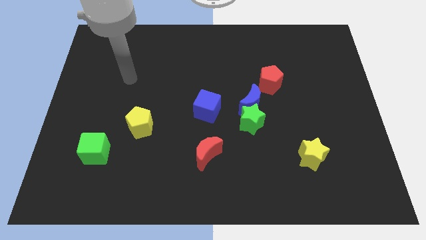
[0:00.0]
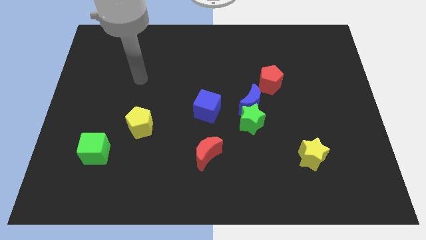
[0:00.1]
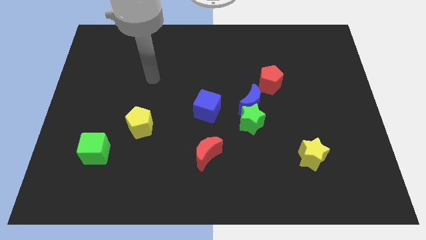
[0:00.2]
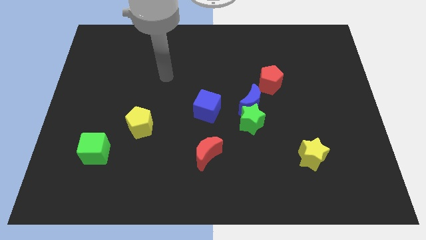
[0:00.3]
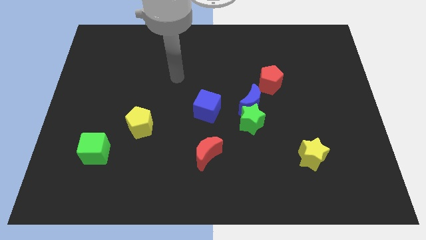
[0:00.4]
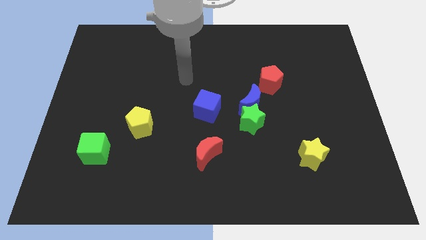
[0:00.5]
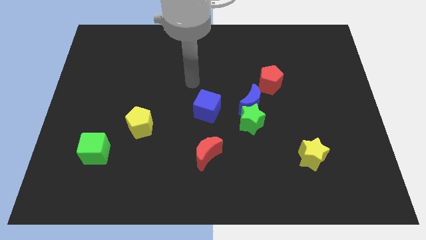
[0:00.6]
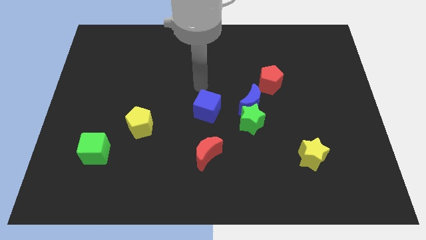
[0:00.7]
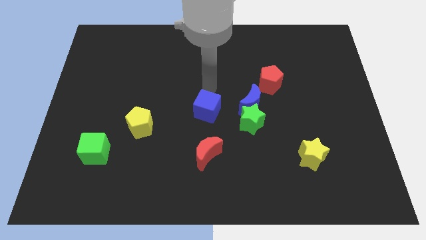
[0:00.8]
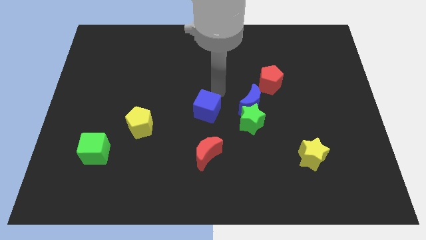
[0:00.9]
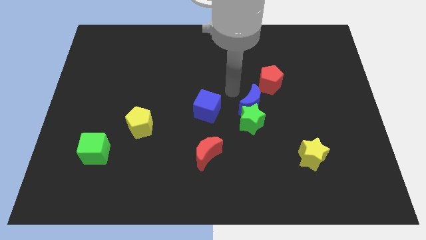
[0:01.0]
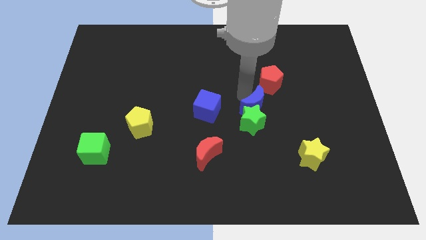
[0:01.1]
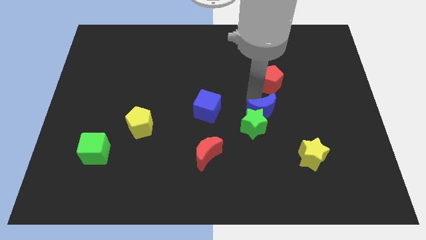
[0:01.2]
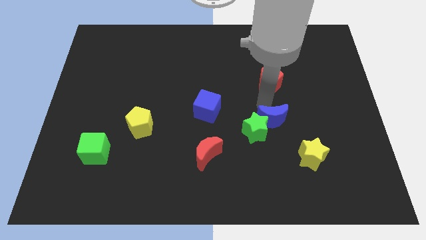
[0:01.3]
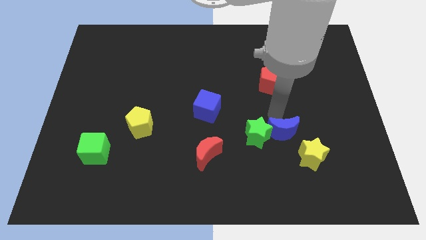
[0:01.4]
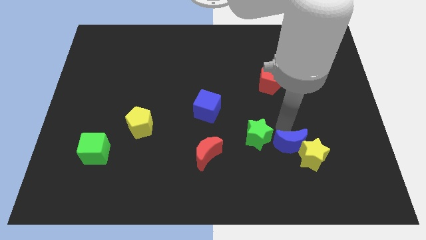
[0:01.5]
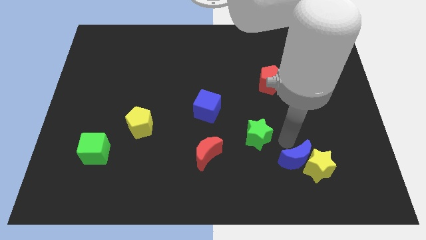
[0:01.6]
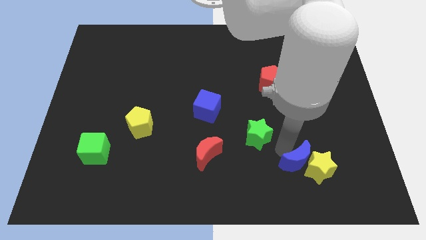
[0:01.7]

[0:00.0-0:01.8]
move the green star away from the blue moon

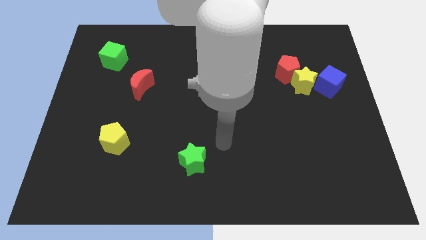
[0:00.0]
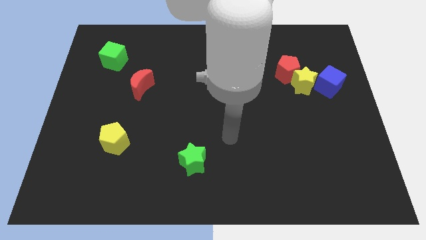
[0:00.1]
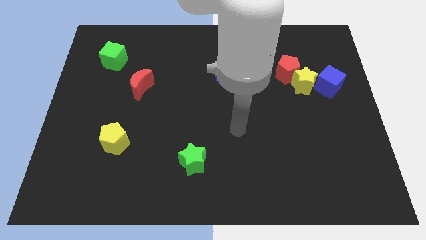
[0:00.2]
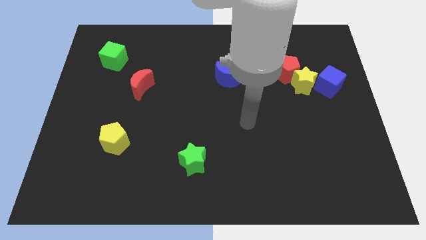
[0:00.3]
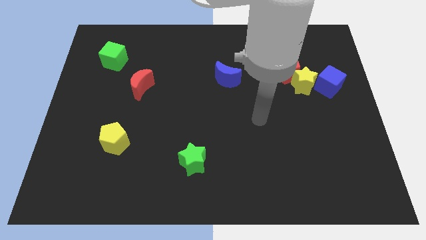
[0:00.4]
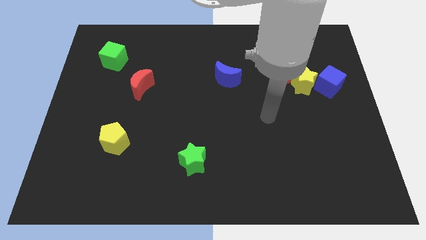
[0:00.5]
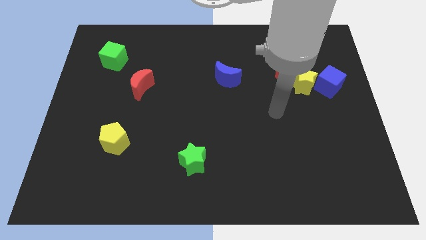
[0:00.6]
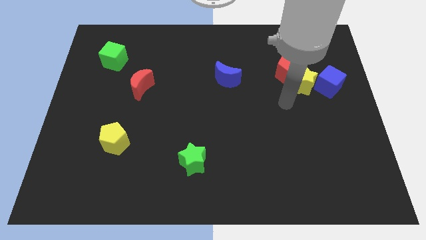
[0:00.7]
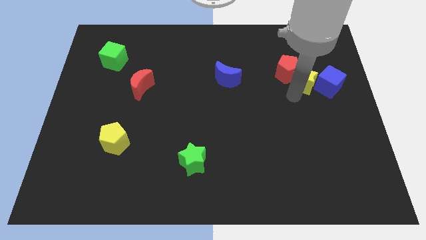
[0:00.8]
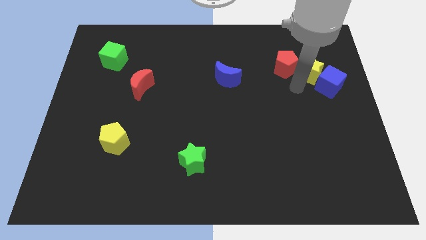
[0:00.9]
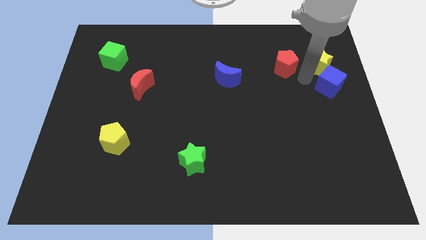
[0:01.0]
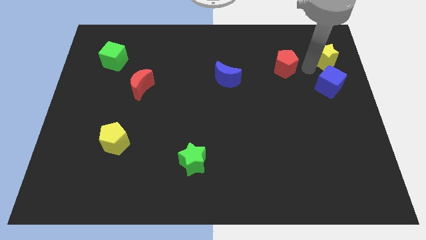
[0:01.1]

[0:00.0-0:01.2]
separate the red pentagon from the yellow star

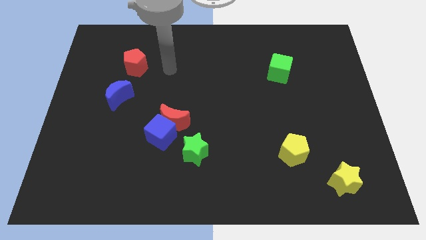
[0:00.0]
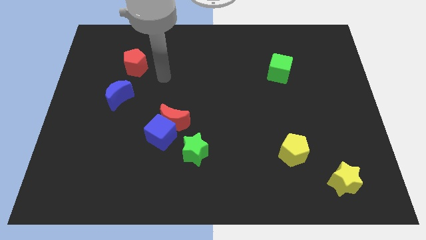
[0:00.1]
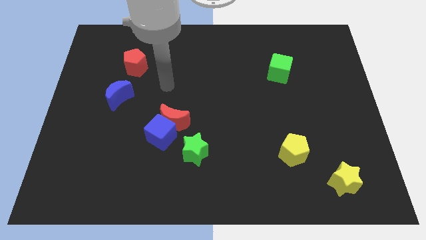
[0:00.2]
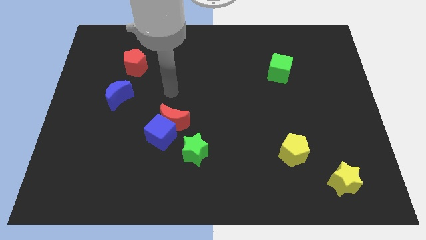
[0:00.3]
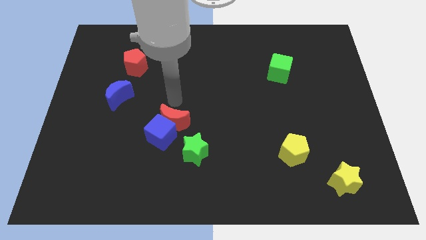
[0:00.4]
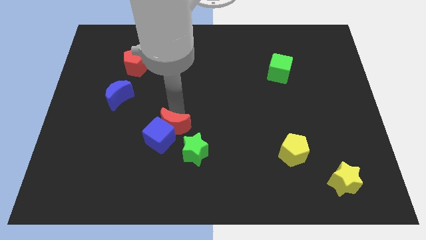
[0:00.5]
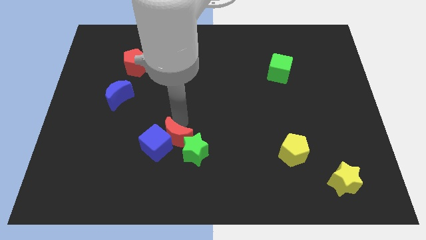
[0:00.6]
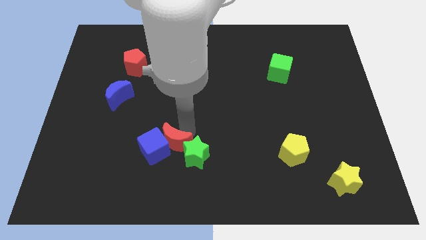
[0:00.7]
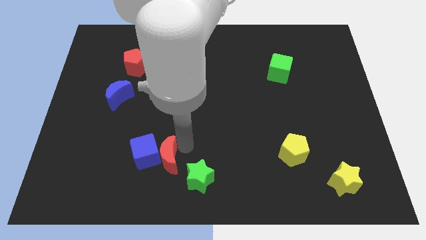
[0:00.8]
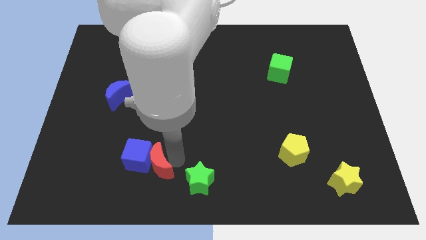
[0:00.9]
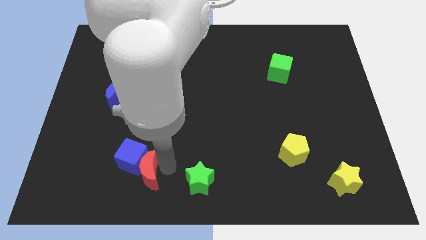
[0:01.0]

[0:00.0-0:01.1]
separate the blue cube from the red moon and green star

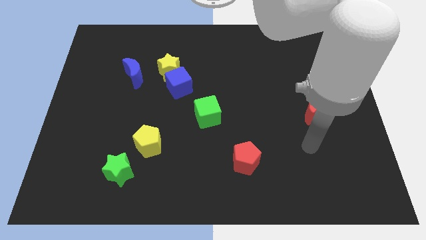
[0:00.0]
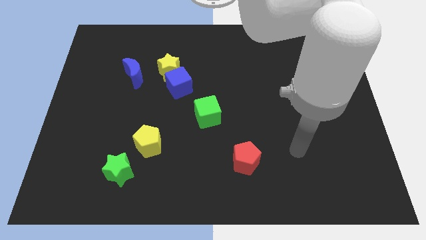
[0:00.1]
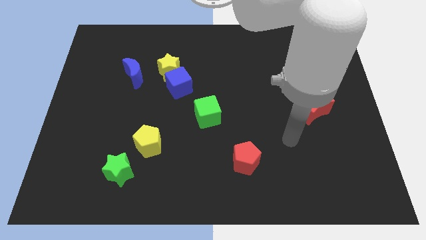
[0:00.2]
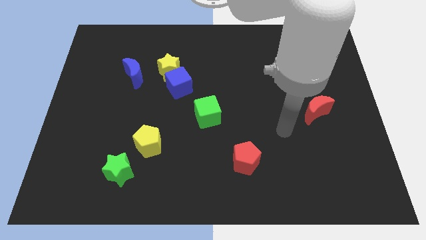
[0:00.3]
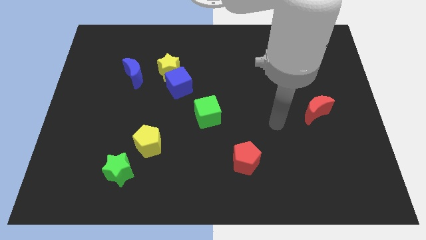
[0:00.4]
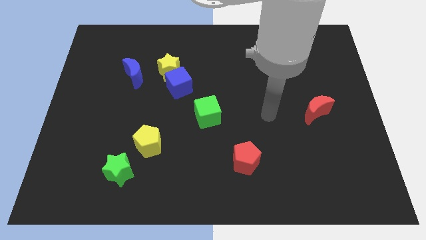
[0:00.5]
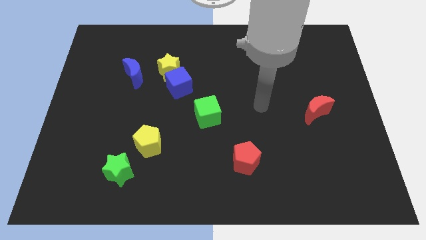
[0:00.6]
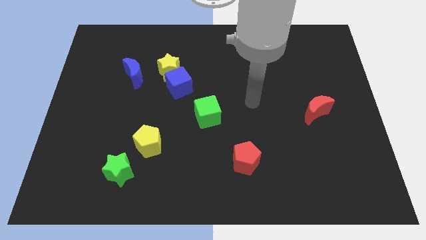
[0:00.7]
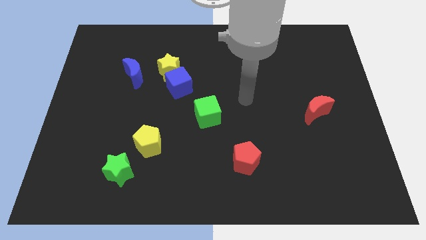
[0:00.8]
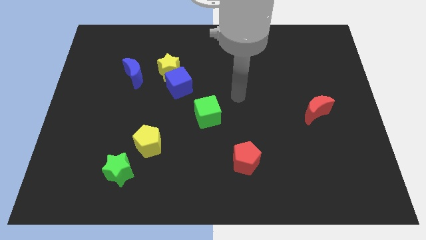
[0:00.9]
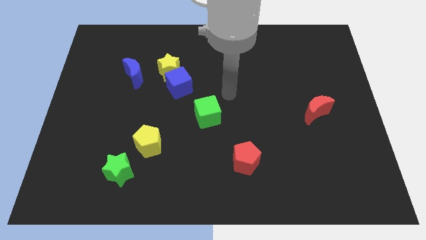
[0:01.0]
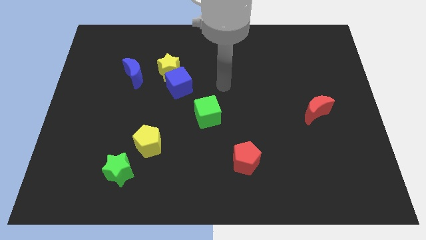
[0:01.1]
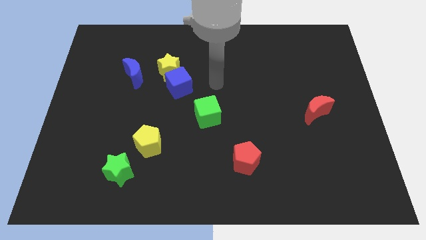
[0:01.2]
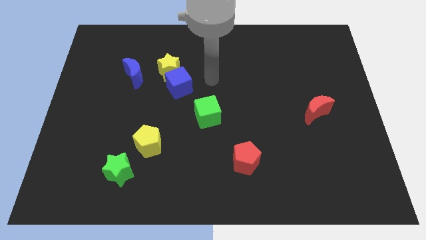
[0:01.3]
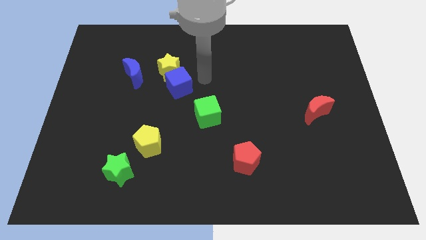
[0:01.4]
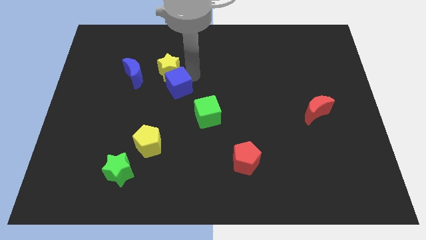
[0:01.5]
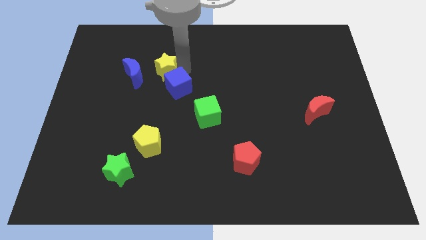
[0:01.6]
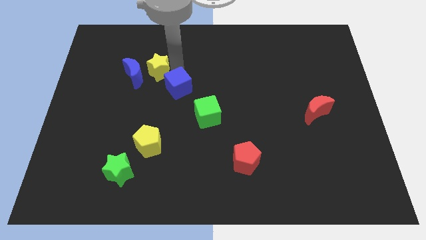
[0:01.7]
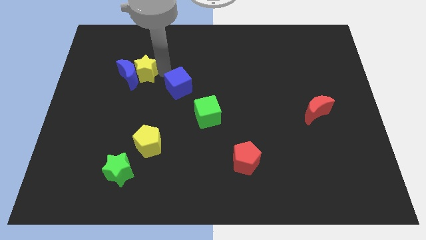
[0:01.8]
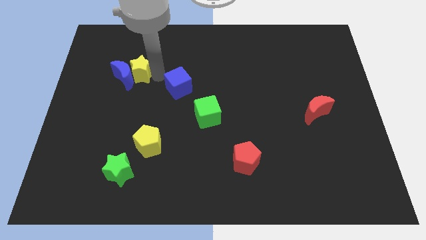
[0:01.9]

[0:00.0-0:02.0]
pull the blue cube apart from the yellow star

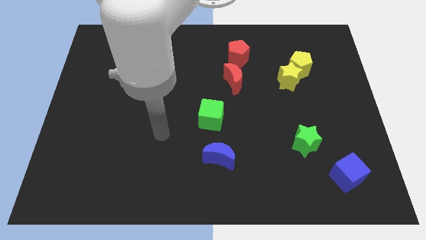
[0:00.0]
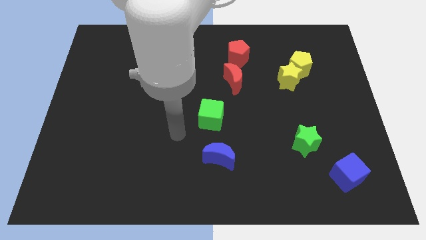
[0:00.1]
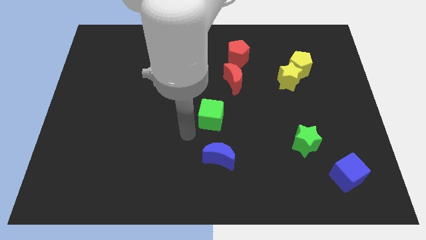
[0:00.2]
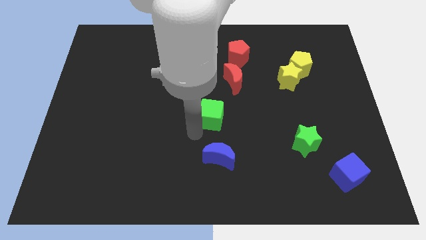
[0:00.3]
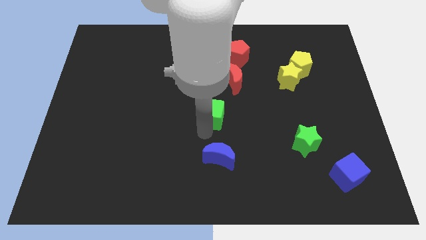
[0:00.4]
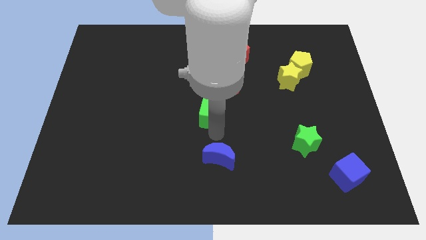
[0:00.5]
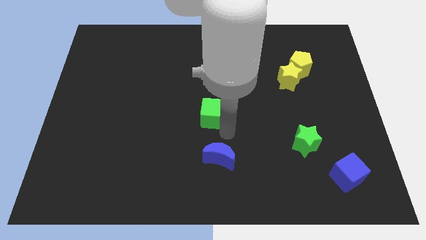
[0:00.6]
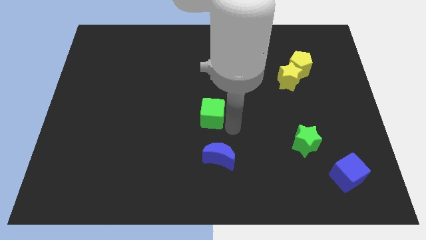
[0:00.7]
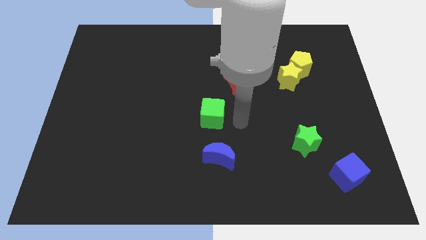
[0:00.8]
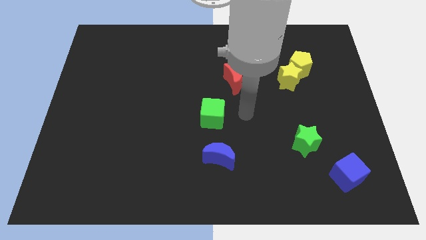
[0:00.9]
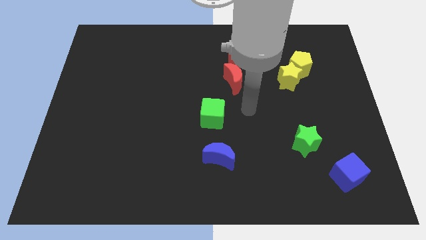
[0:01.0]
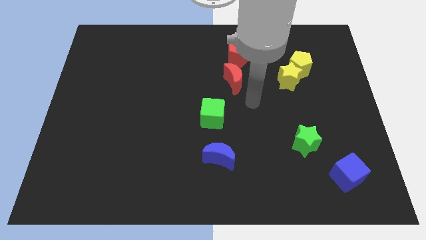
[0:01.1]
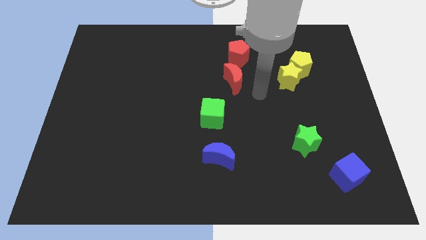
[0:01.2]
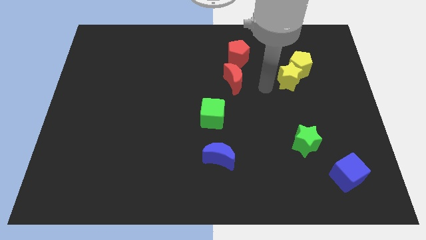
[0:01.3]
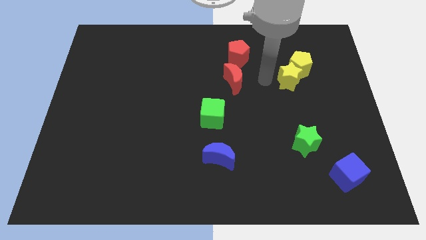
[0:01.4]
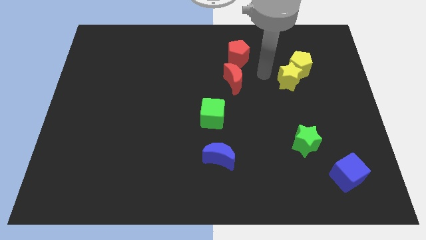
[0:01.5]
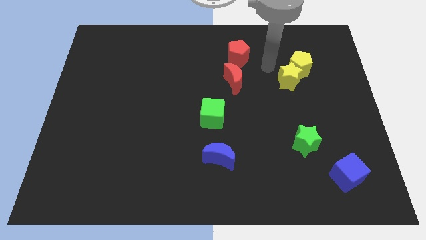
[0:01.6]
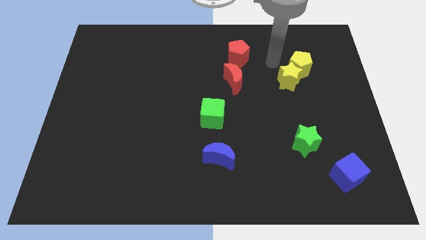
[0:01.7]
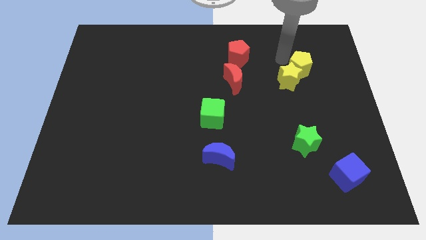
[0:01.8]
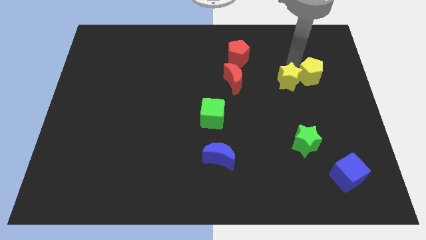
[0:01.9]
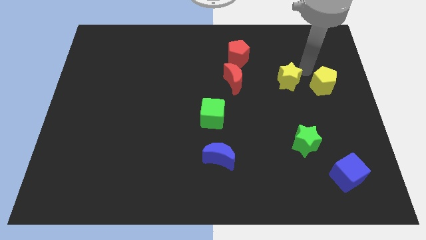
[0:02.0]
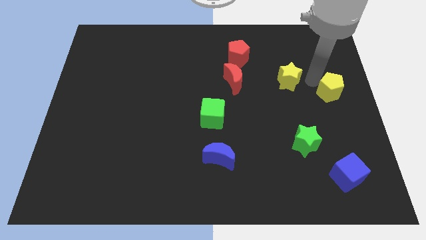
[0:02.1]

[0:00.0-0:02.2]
pull the yellow star apart from the yellow pentagon

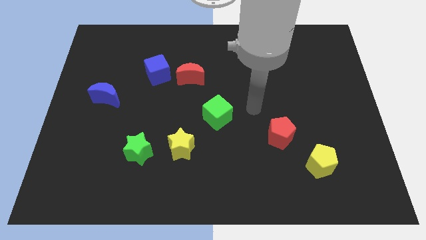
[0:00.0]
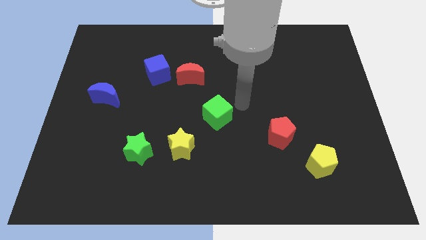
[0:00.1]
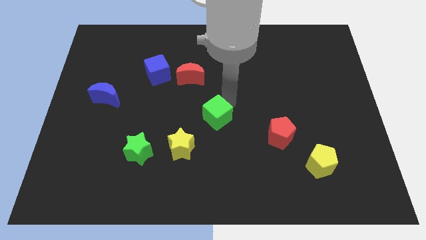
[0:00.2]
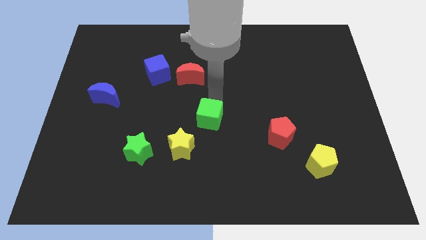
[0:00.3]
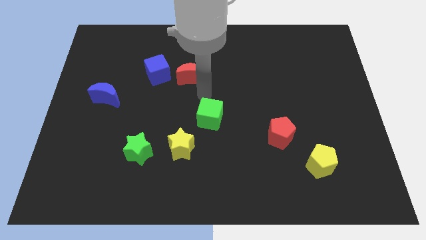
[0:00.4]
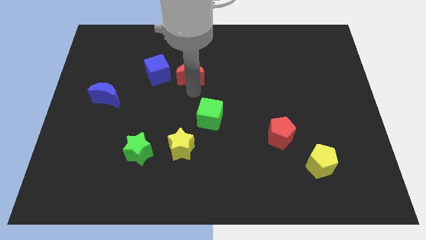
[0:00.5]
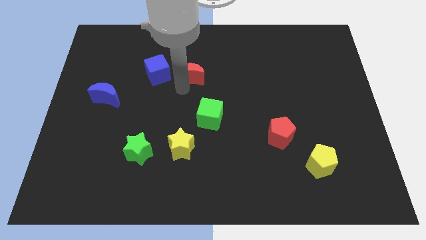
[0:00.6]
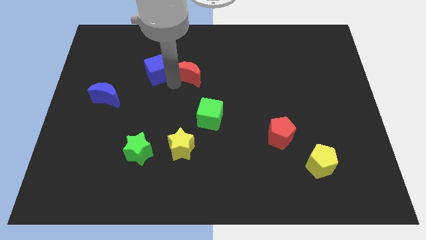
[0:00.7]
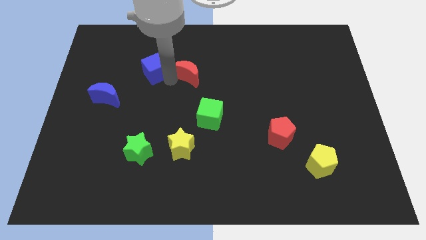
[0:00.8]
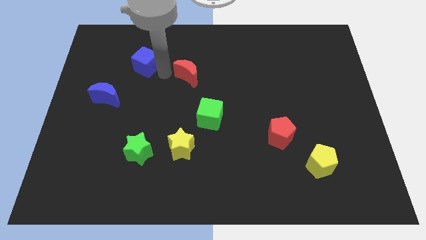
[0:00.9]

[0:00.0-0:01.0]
pull the red moon apart from the blue cube

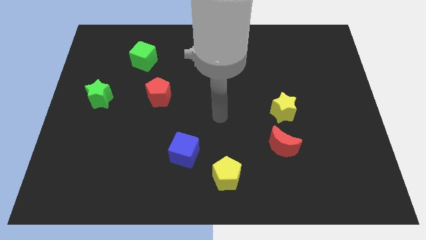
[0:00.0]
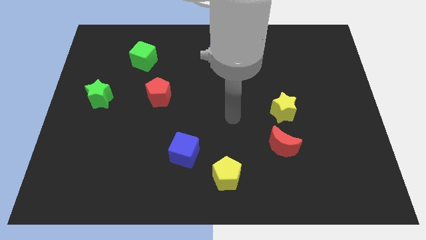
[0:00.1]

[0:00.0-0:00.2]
move the red moon away from the yellow star
